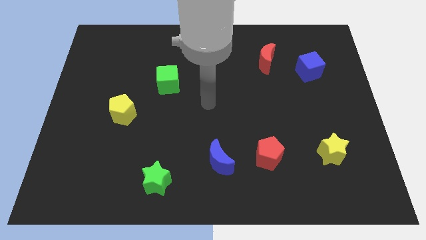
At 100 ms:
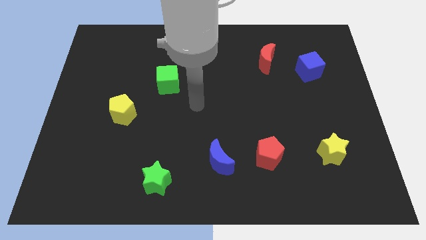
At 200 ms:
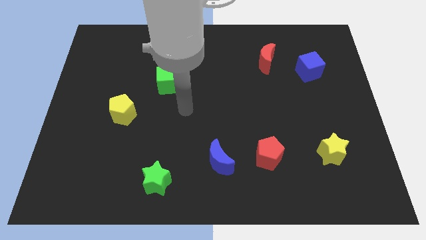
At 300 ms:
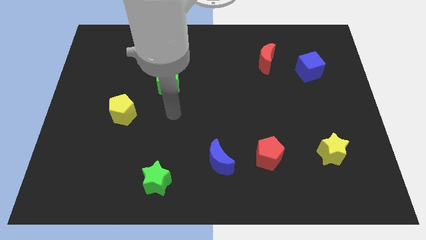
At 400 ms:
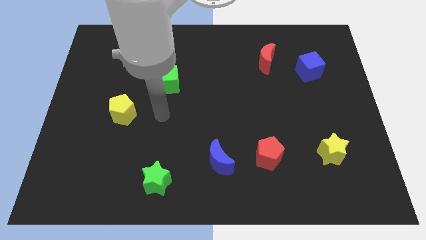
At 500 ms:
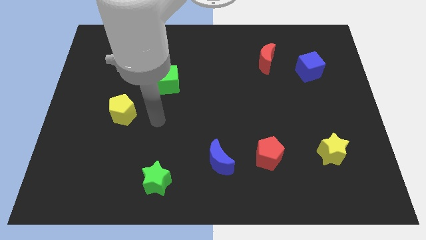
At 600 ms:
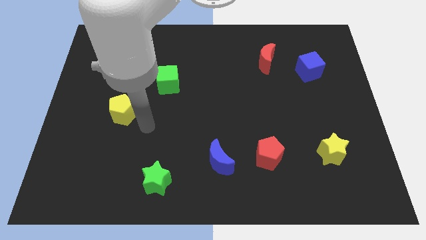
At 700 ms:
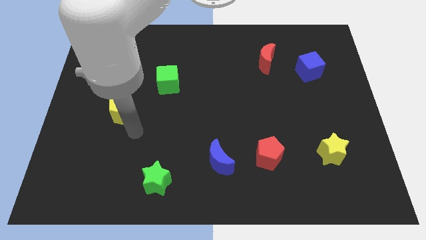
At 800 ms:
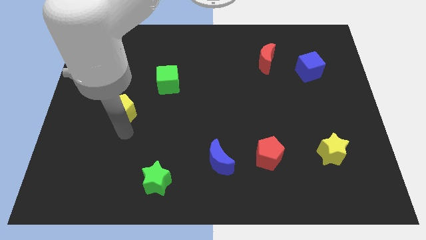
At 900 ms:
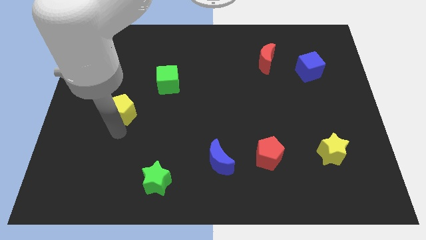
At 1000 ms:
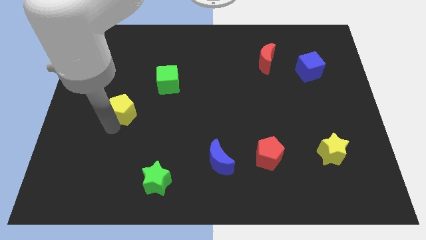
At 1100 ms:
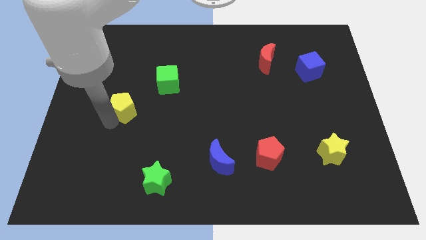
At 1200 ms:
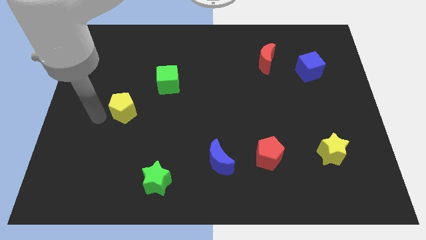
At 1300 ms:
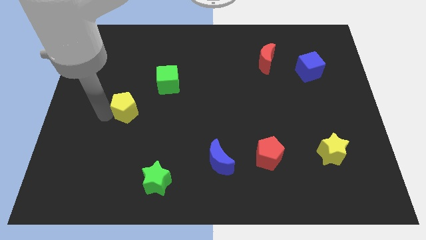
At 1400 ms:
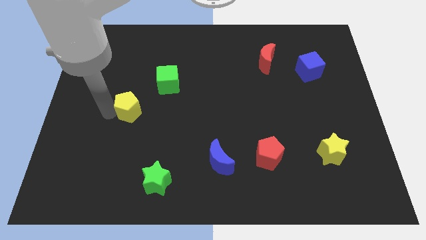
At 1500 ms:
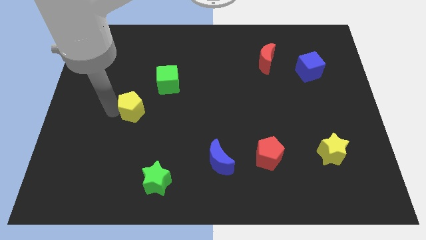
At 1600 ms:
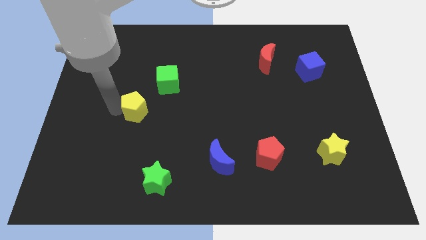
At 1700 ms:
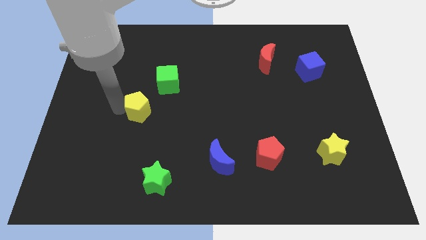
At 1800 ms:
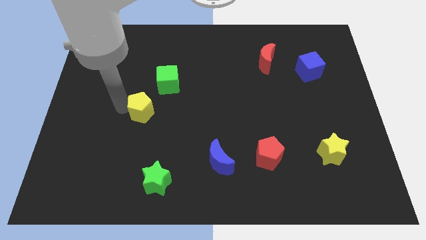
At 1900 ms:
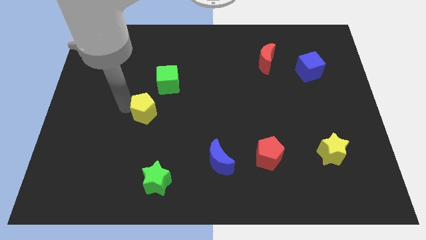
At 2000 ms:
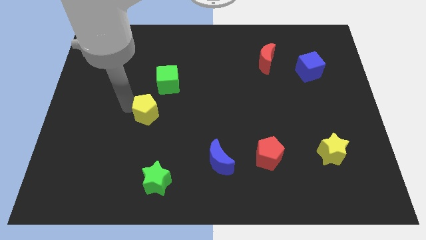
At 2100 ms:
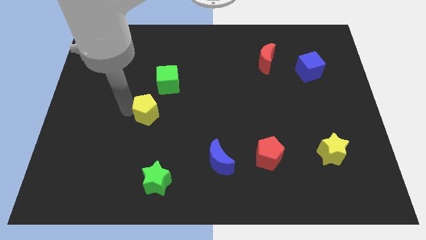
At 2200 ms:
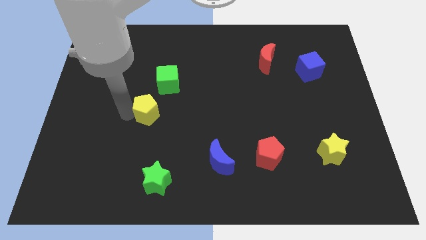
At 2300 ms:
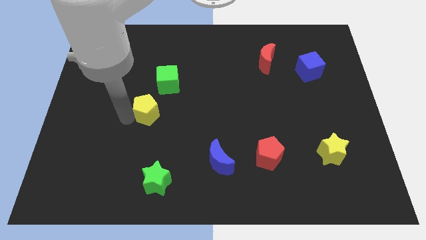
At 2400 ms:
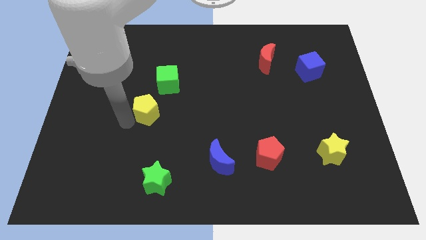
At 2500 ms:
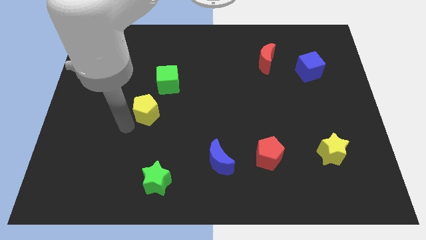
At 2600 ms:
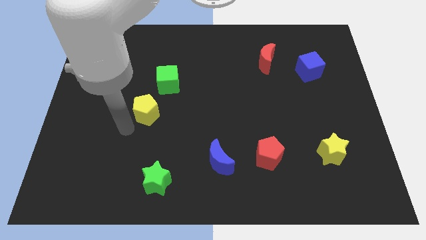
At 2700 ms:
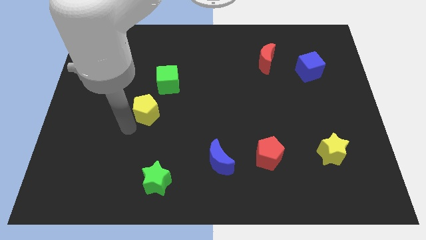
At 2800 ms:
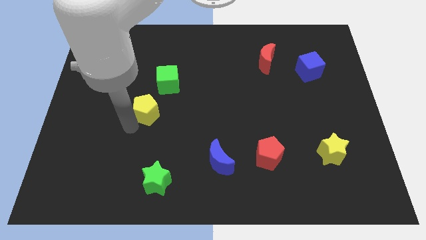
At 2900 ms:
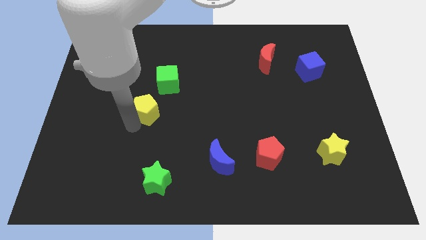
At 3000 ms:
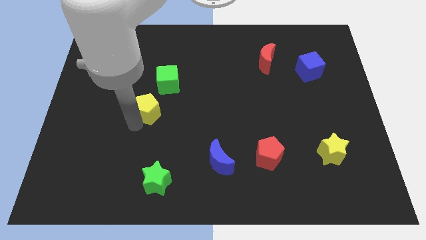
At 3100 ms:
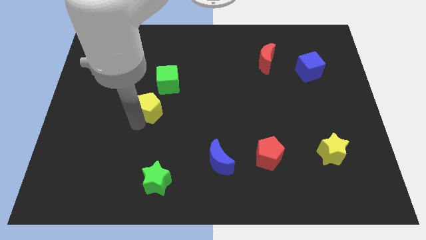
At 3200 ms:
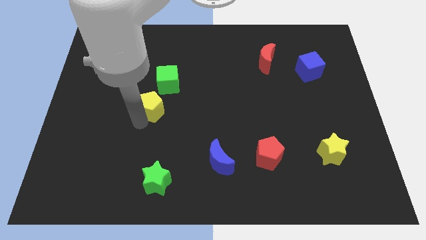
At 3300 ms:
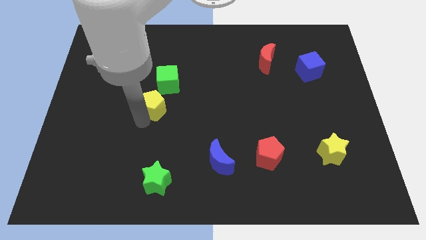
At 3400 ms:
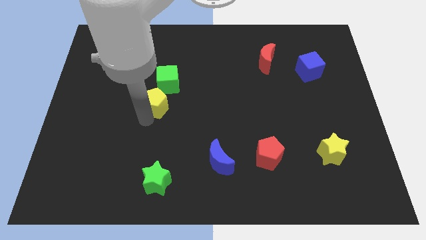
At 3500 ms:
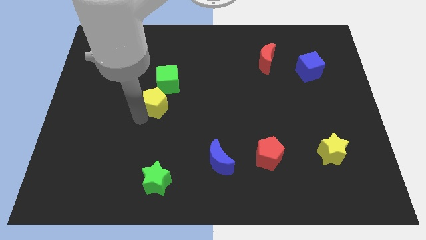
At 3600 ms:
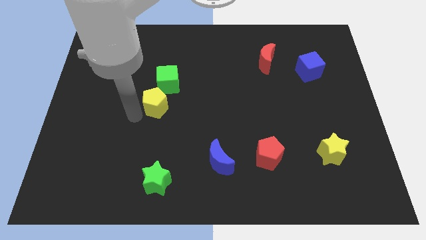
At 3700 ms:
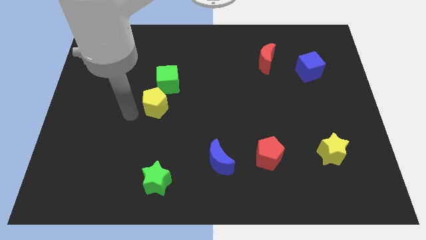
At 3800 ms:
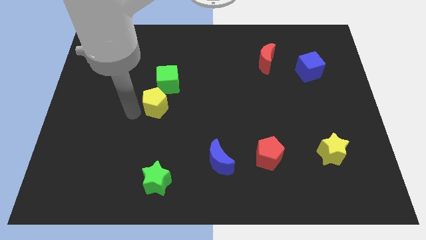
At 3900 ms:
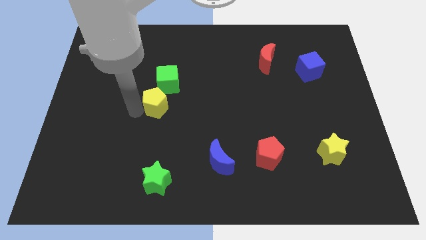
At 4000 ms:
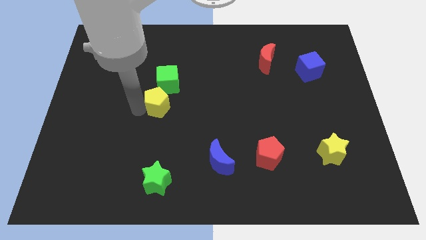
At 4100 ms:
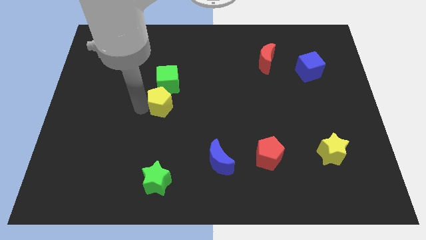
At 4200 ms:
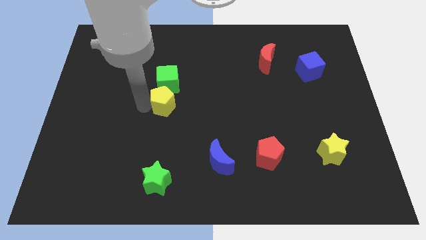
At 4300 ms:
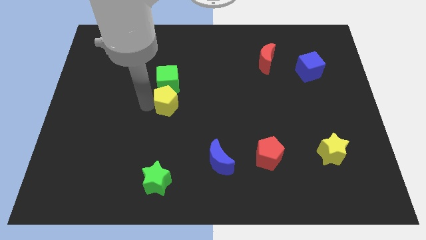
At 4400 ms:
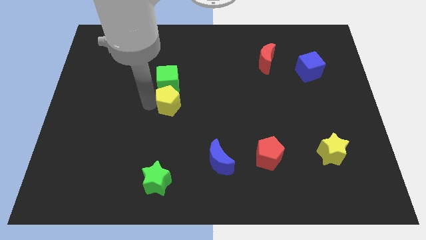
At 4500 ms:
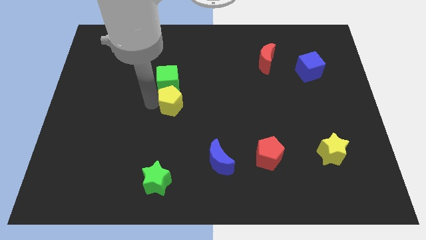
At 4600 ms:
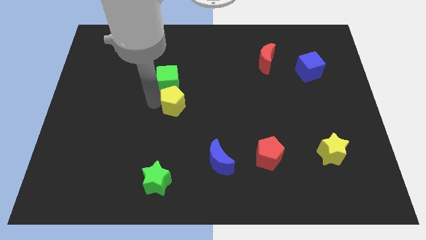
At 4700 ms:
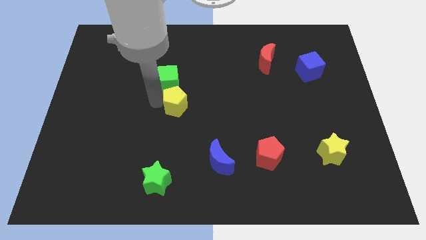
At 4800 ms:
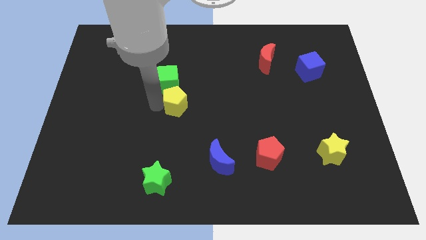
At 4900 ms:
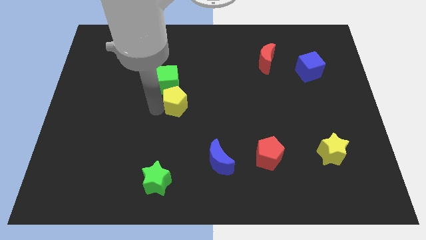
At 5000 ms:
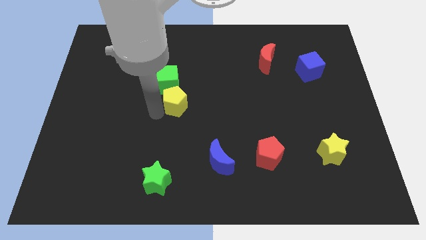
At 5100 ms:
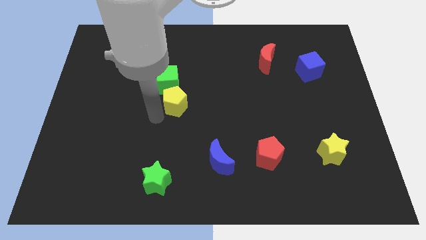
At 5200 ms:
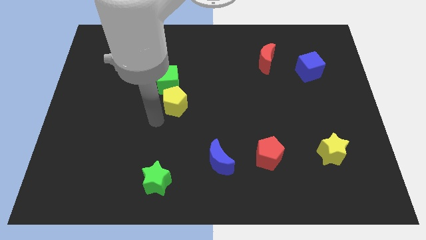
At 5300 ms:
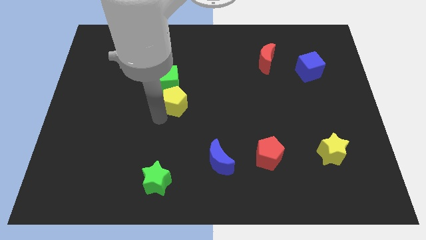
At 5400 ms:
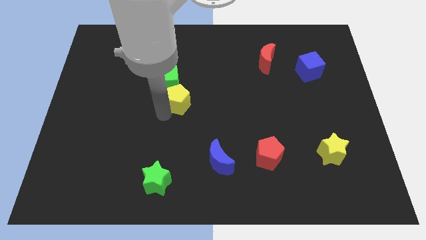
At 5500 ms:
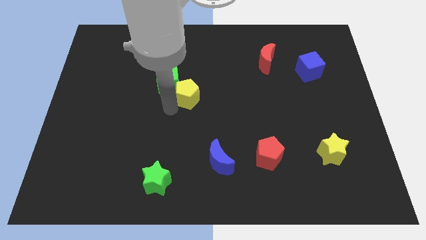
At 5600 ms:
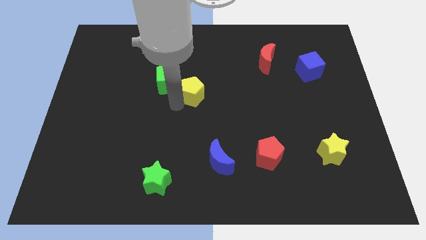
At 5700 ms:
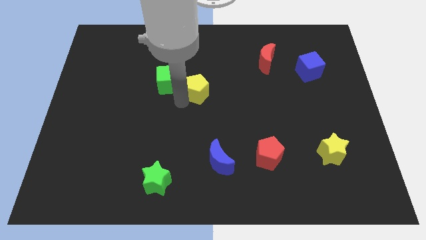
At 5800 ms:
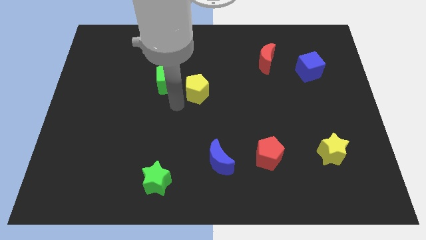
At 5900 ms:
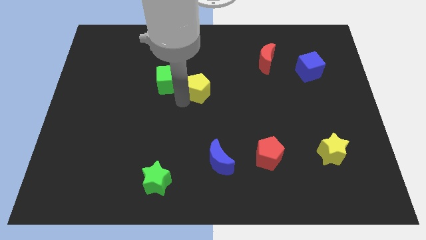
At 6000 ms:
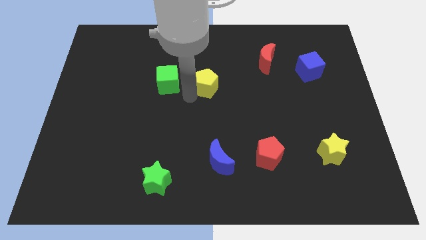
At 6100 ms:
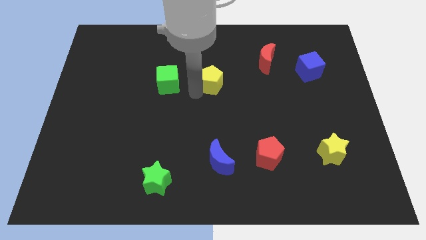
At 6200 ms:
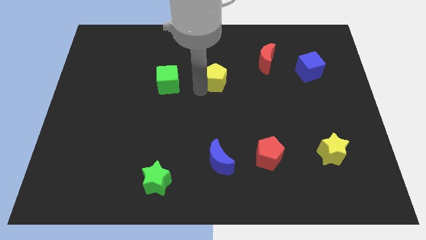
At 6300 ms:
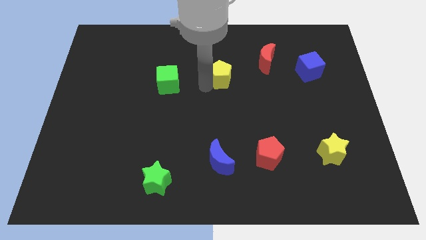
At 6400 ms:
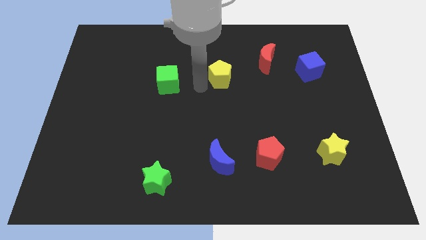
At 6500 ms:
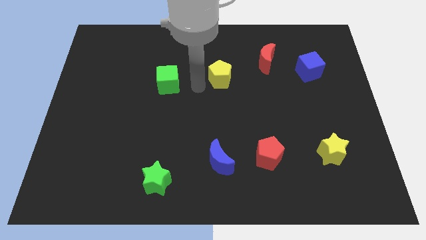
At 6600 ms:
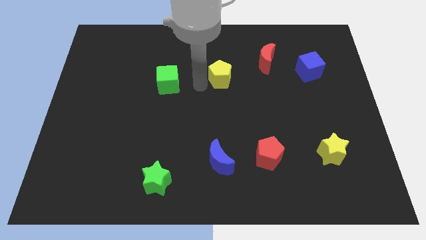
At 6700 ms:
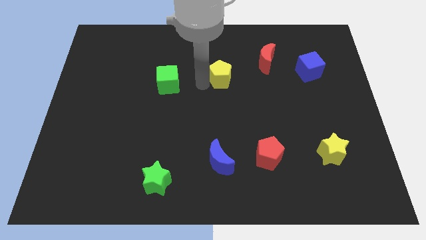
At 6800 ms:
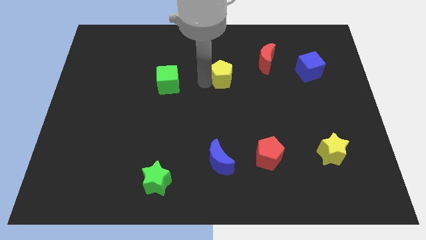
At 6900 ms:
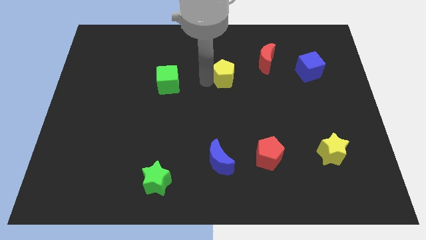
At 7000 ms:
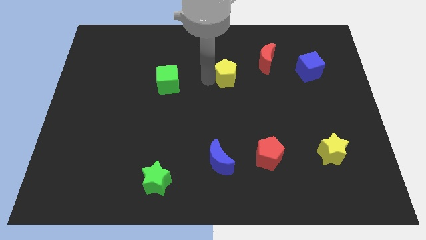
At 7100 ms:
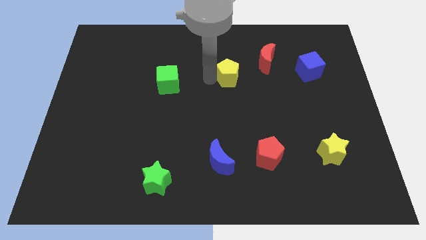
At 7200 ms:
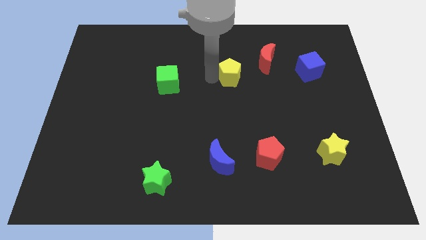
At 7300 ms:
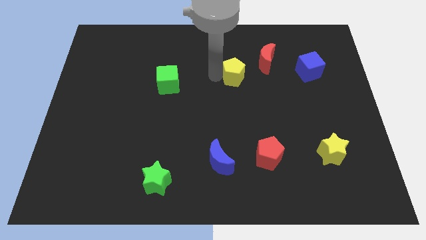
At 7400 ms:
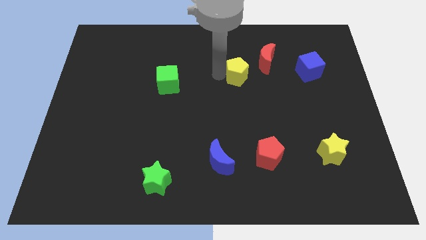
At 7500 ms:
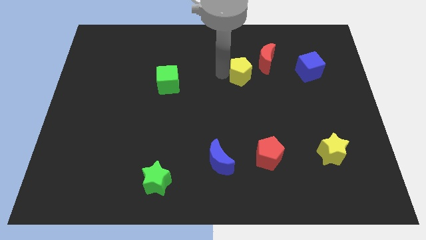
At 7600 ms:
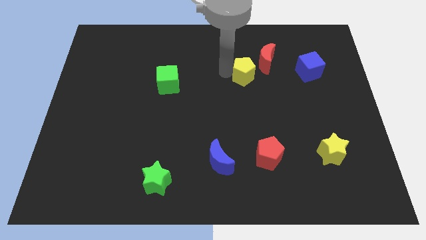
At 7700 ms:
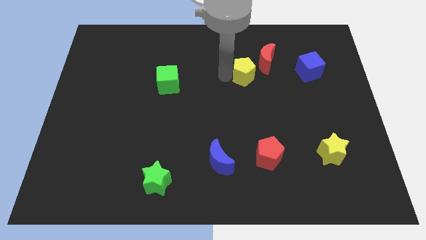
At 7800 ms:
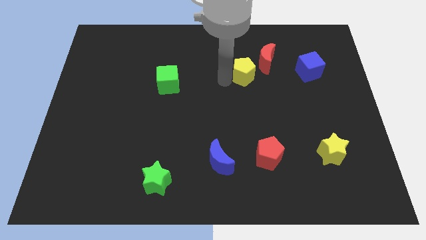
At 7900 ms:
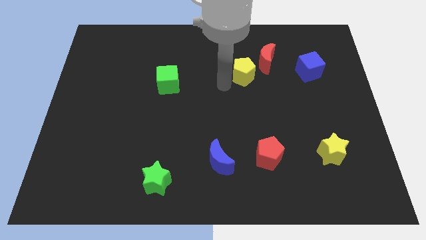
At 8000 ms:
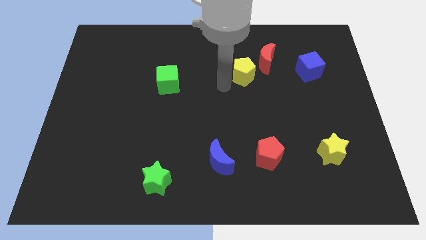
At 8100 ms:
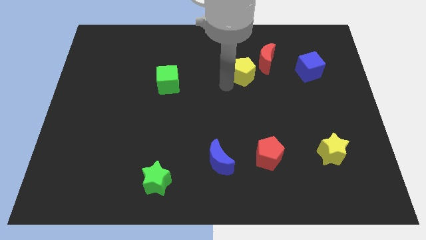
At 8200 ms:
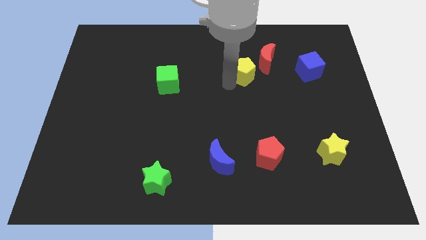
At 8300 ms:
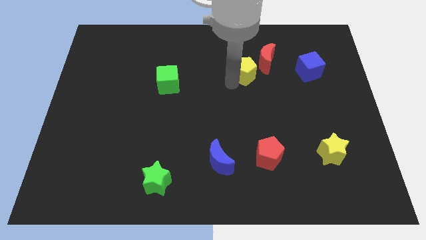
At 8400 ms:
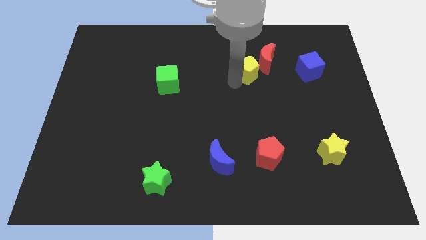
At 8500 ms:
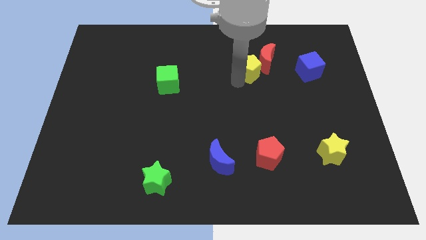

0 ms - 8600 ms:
slide the yellow pentagon to the red moon
